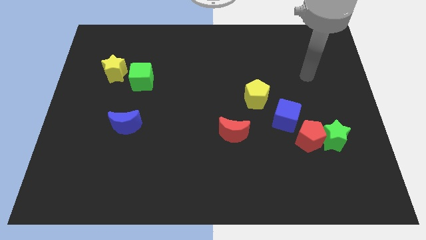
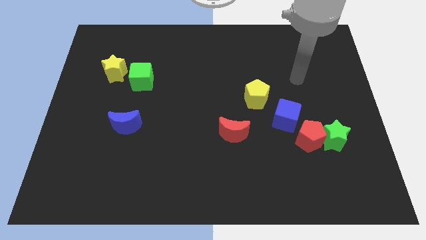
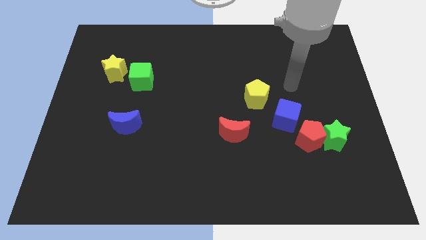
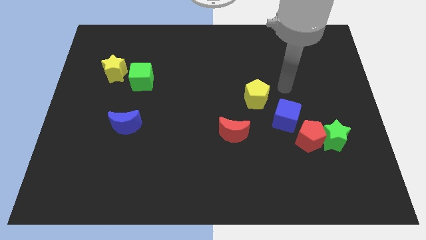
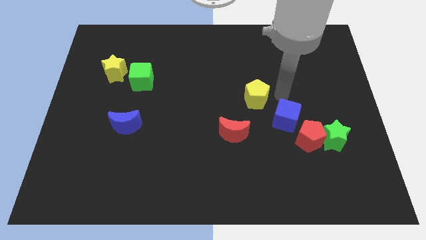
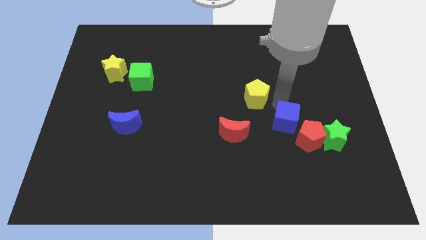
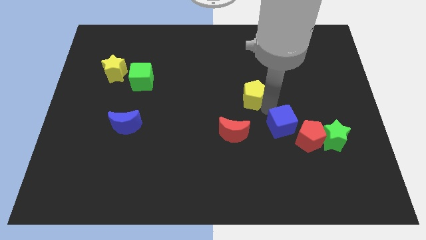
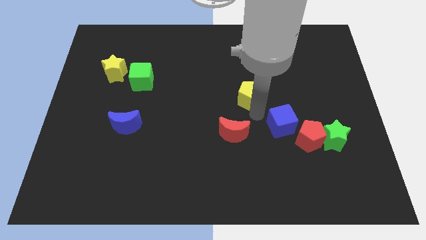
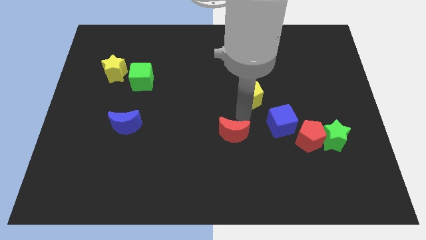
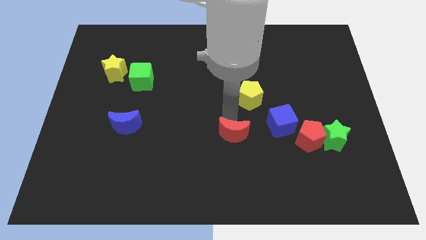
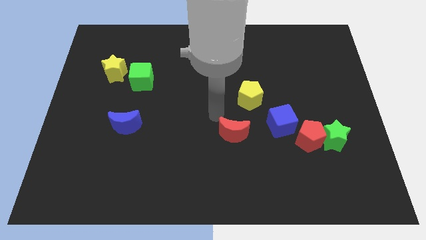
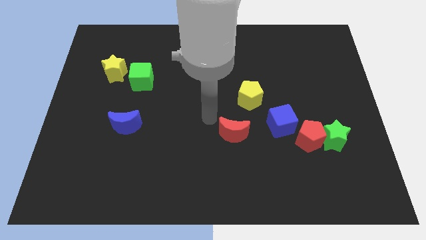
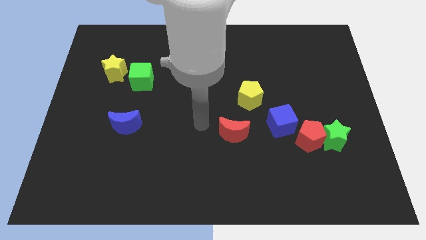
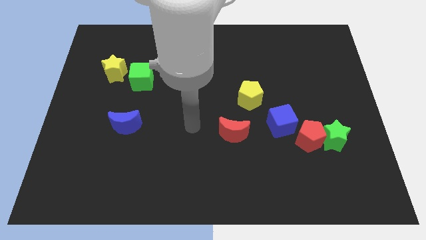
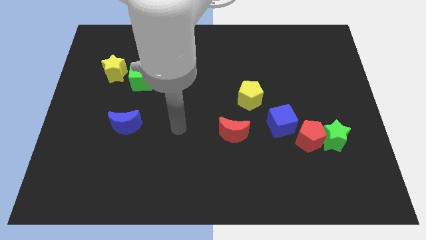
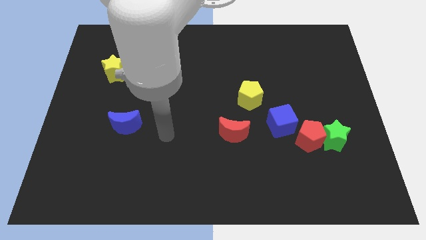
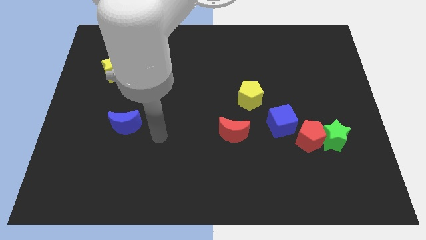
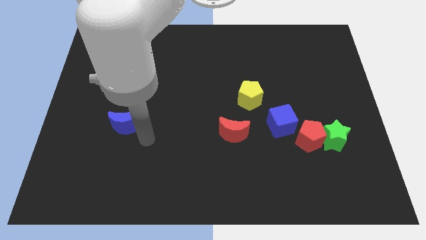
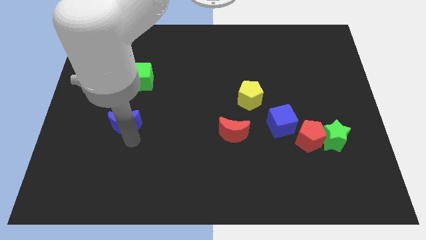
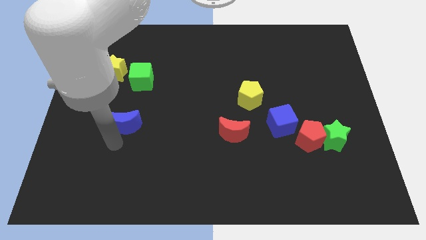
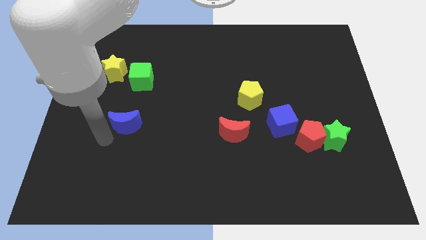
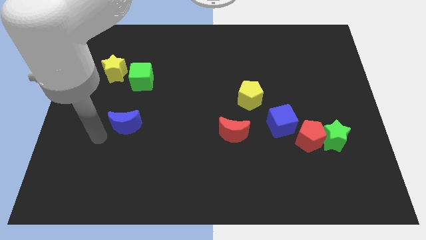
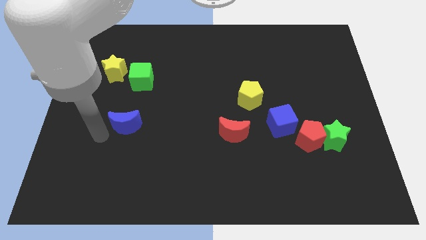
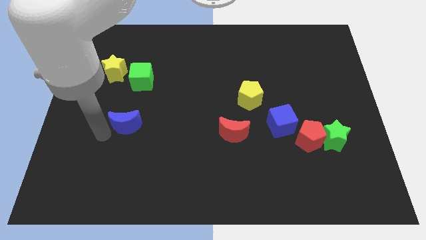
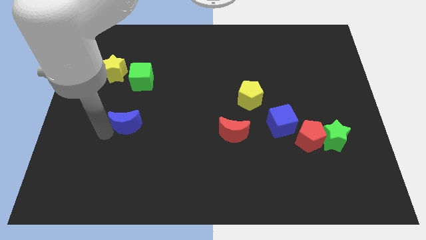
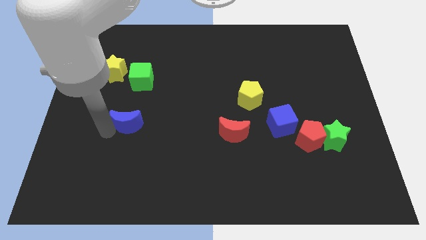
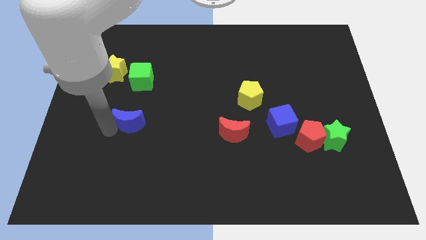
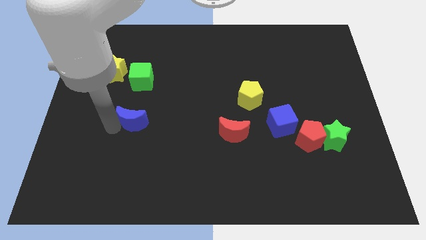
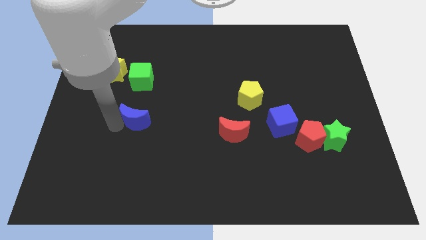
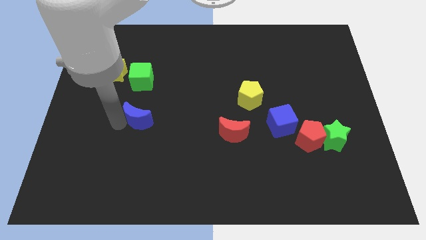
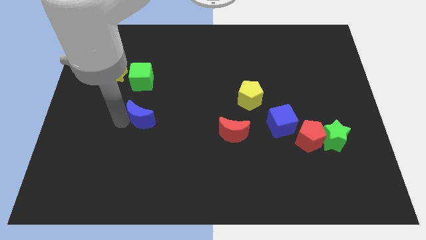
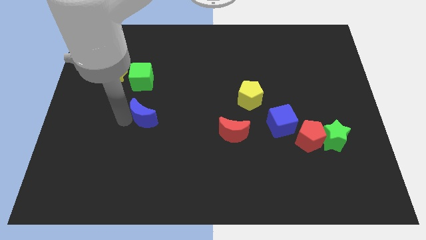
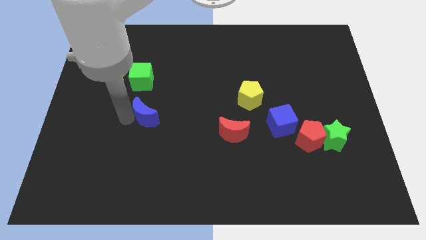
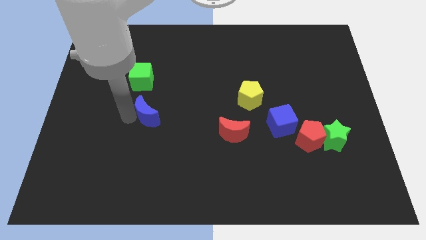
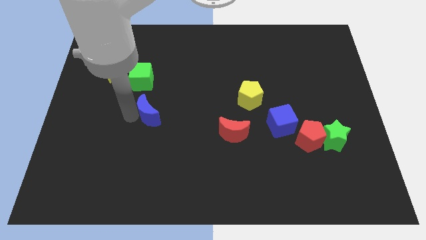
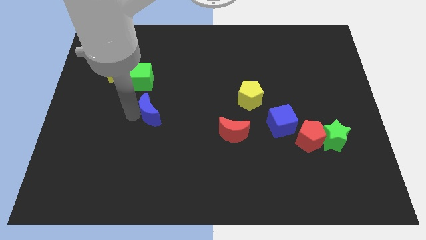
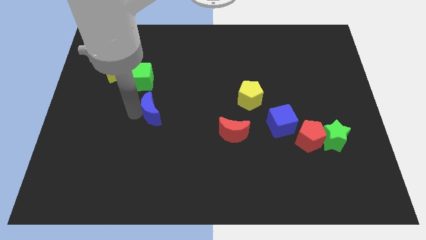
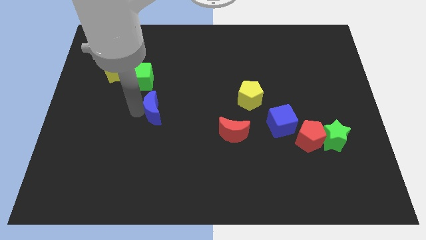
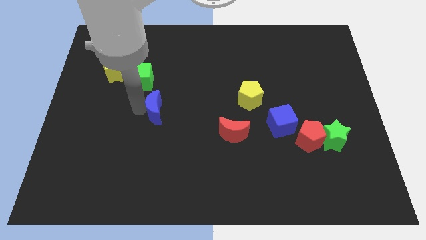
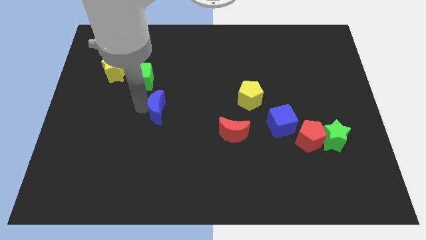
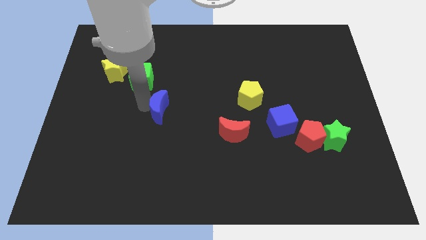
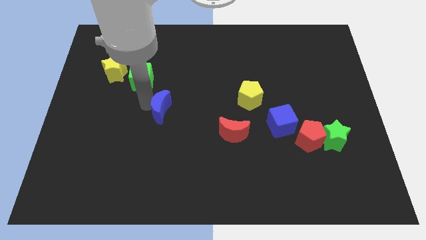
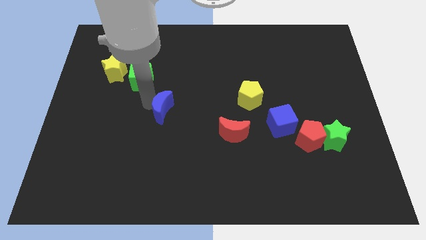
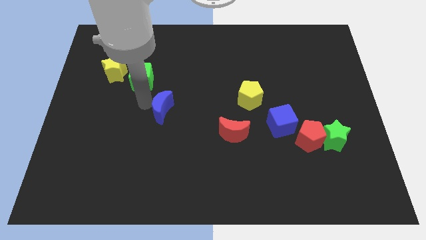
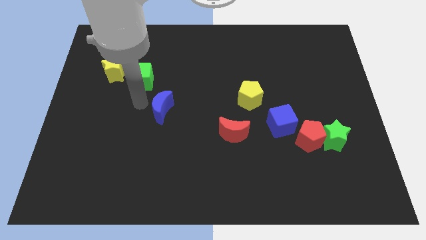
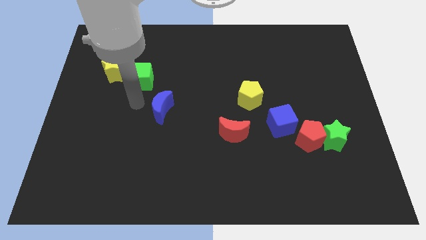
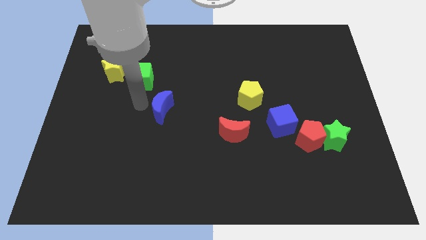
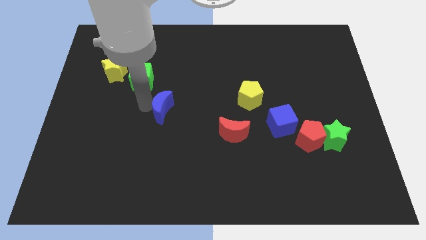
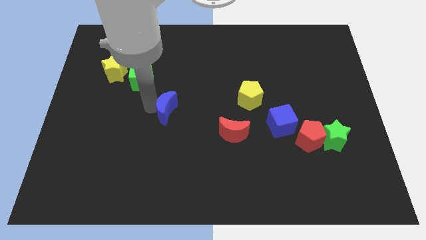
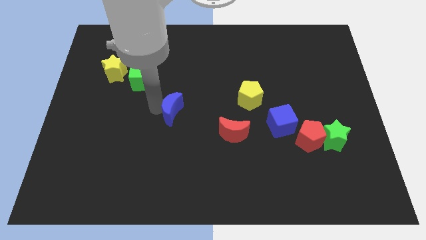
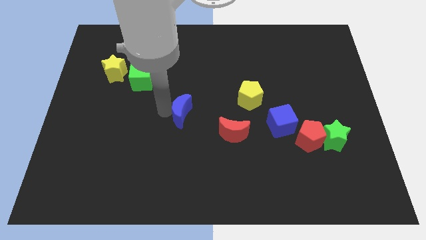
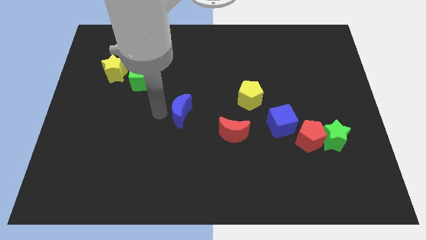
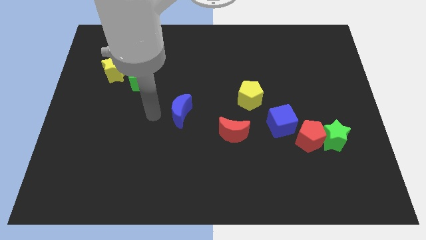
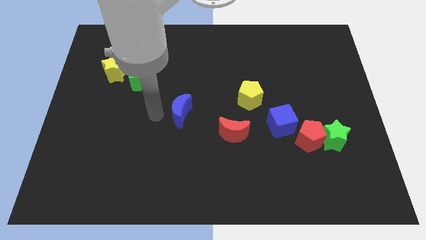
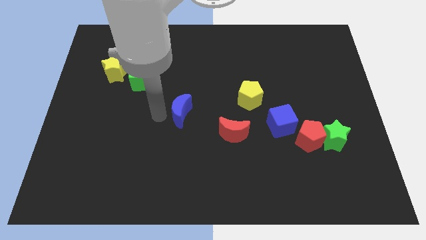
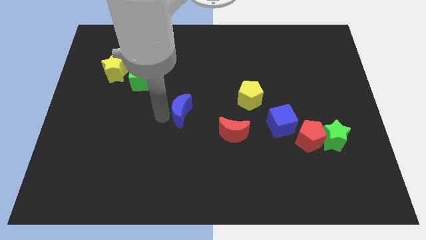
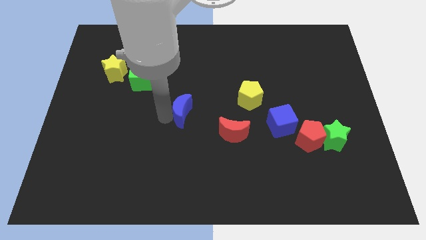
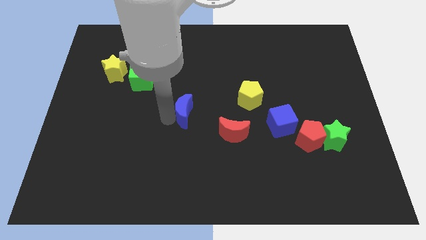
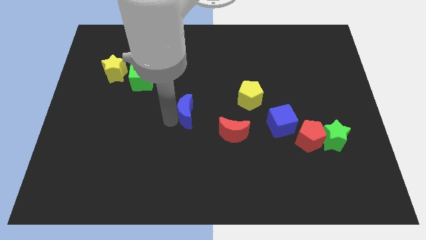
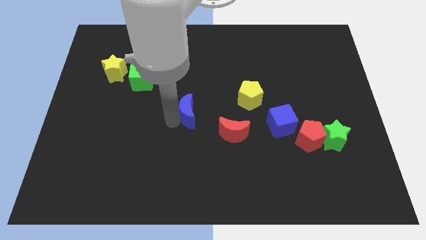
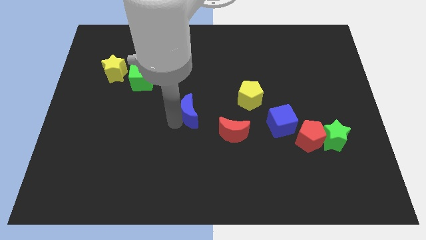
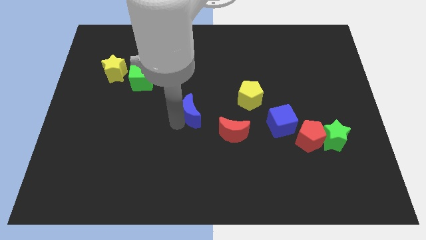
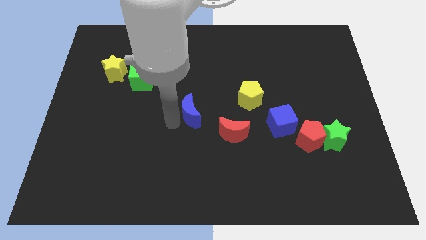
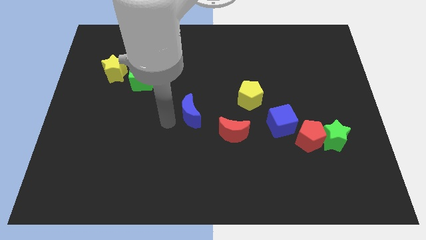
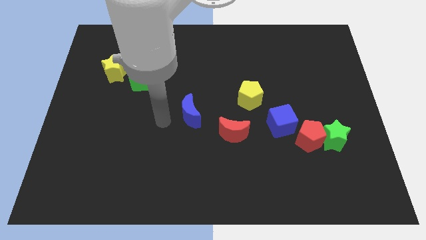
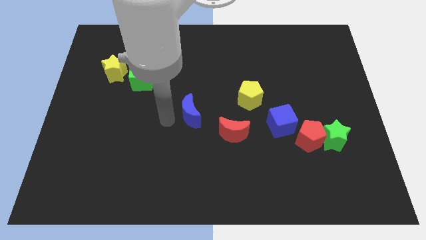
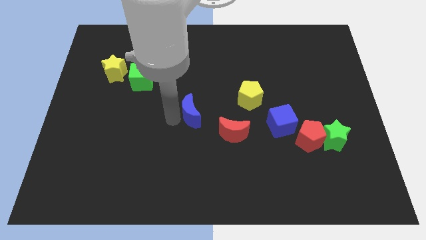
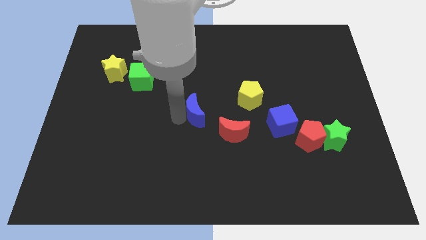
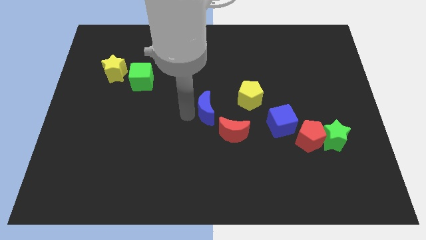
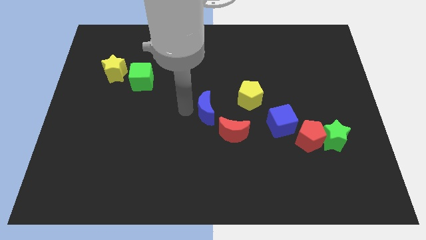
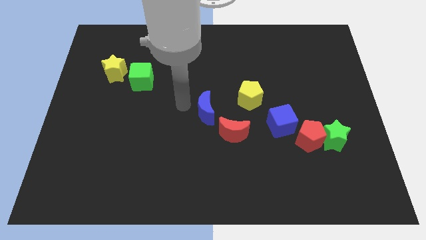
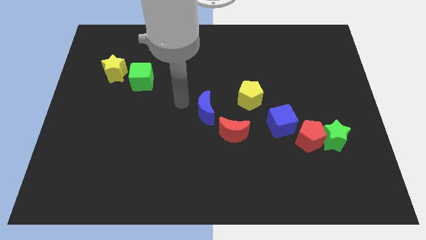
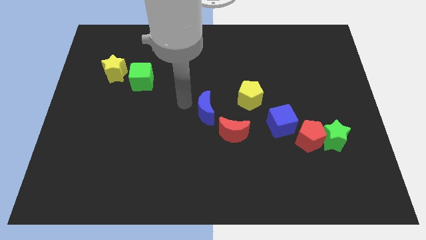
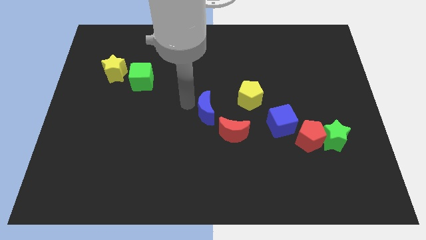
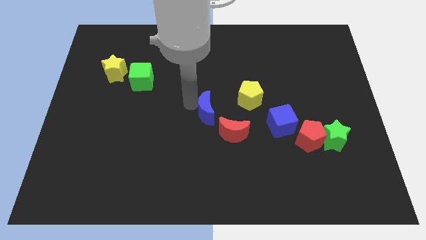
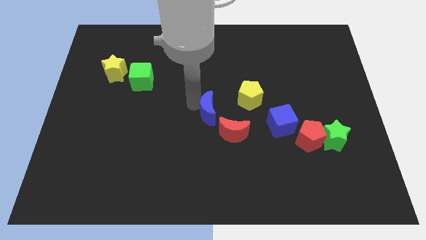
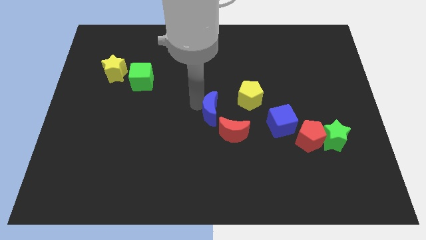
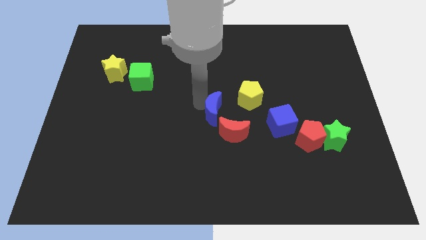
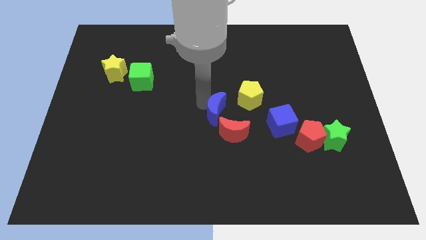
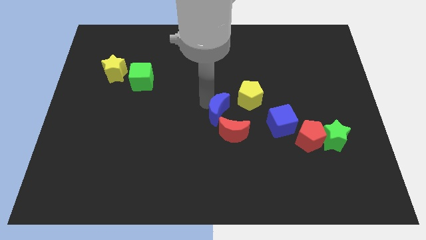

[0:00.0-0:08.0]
push the blue moon to the left side of the blue cube
